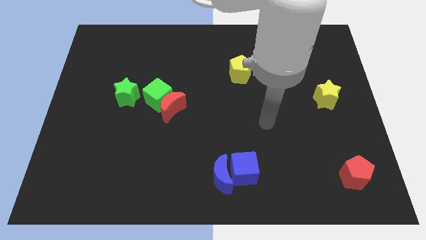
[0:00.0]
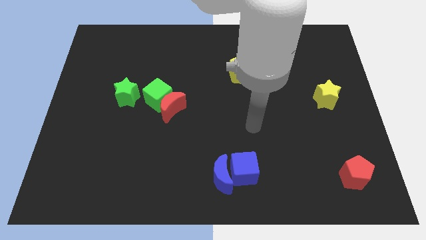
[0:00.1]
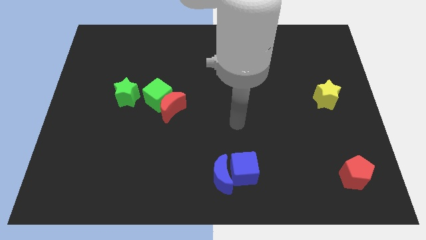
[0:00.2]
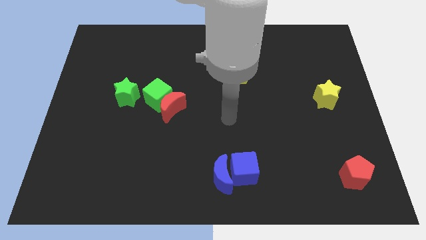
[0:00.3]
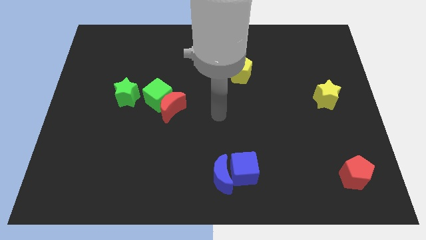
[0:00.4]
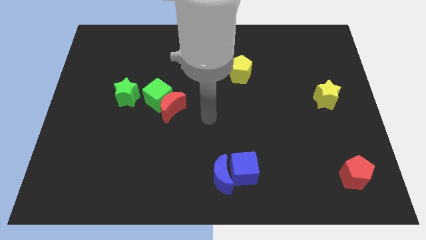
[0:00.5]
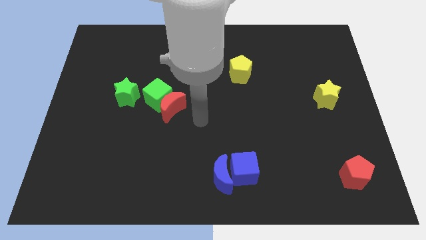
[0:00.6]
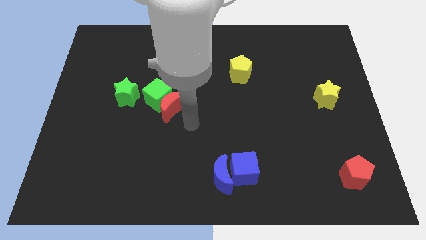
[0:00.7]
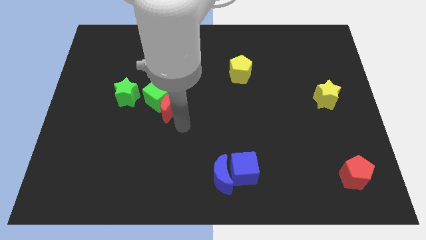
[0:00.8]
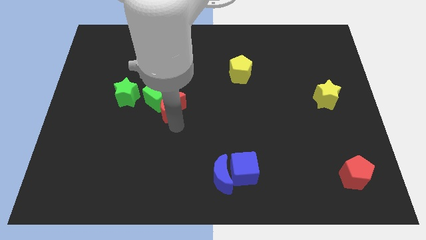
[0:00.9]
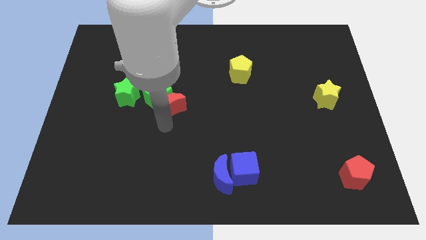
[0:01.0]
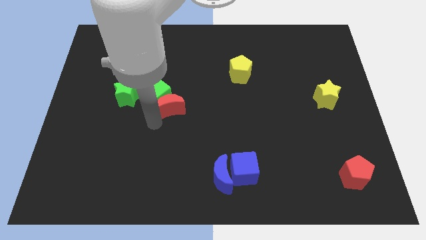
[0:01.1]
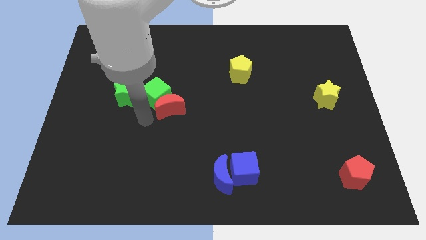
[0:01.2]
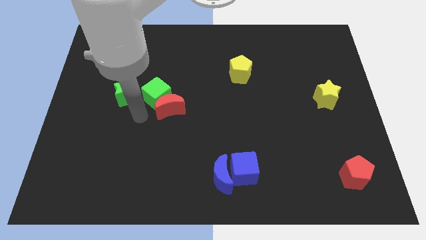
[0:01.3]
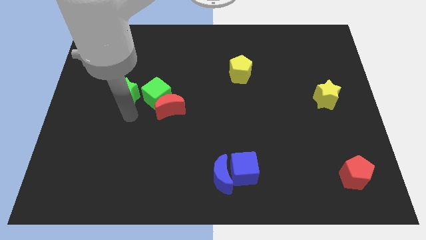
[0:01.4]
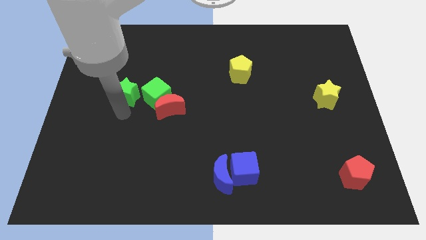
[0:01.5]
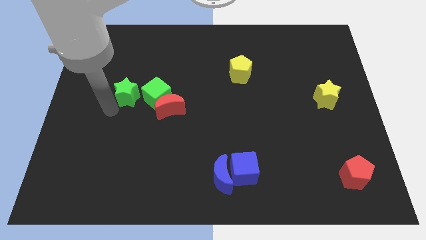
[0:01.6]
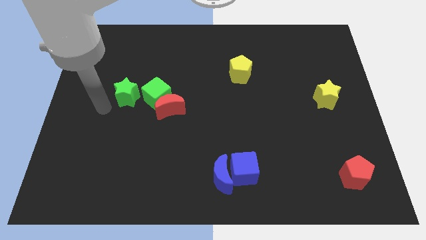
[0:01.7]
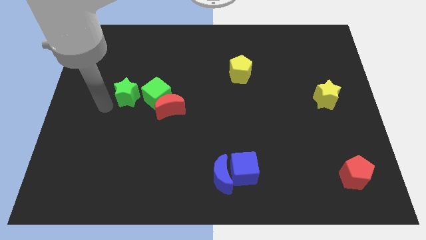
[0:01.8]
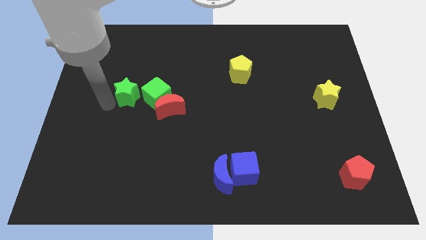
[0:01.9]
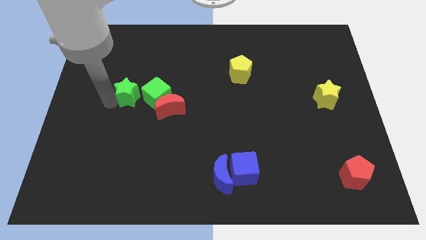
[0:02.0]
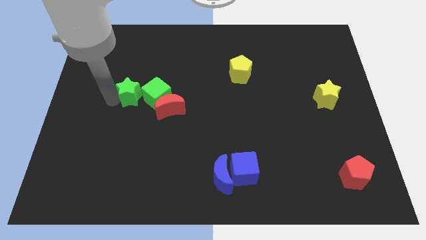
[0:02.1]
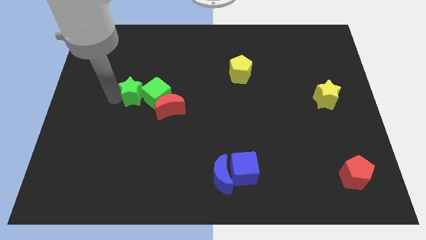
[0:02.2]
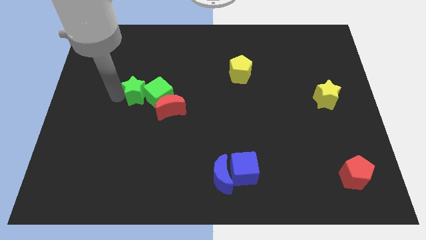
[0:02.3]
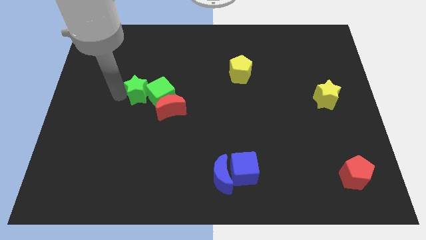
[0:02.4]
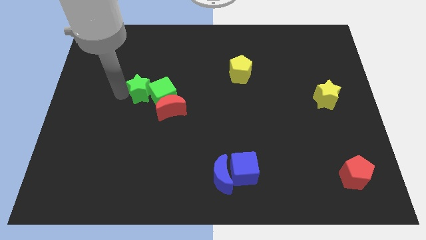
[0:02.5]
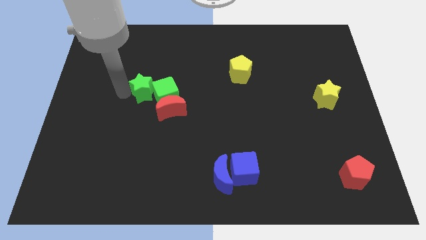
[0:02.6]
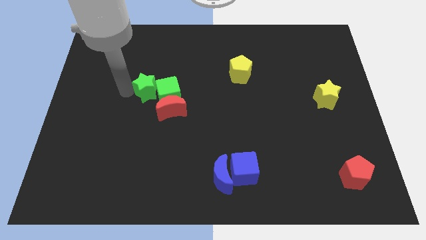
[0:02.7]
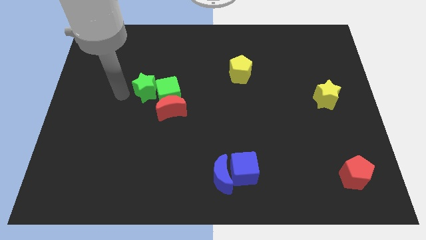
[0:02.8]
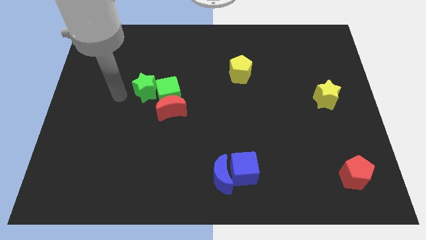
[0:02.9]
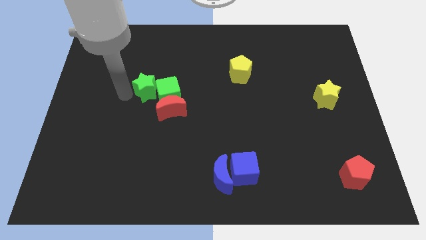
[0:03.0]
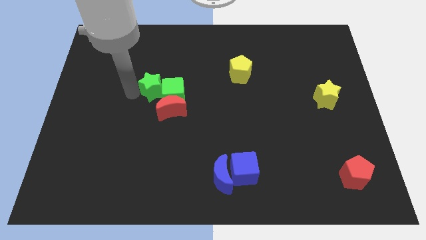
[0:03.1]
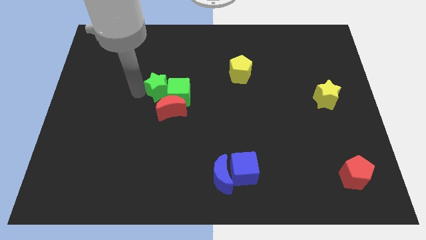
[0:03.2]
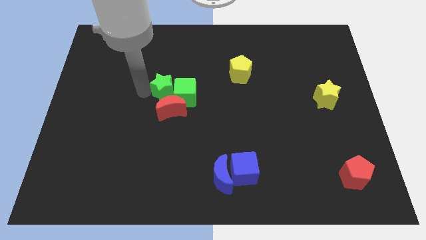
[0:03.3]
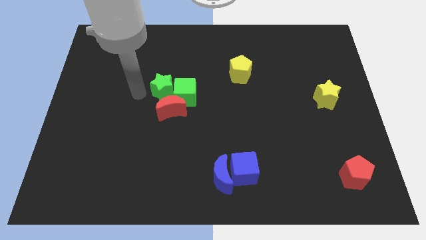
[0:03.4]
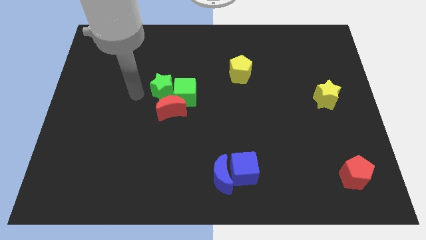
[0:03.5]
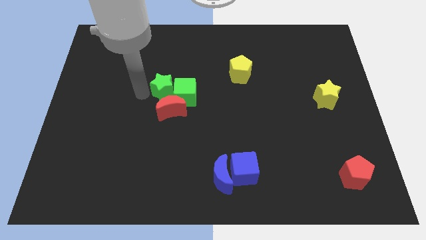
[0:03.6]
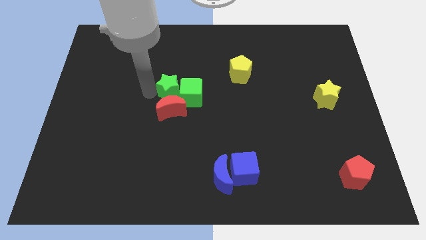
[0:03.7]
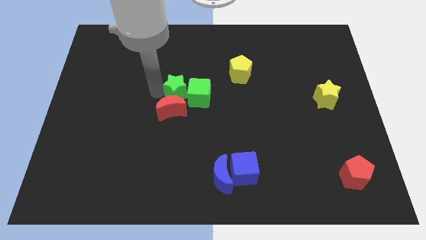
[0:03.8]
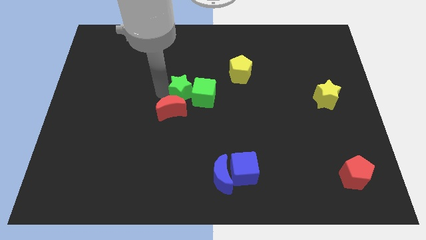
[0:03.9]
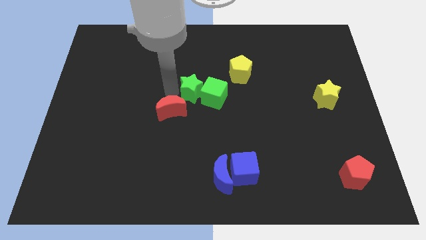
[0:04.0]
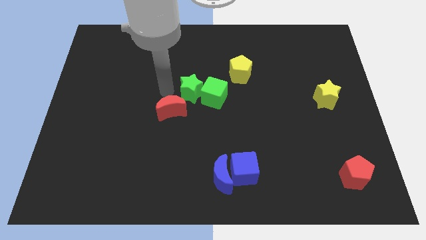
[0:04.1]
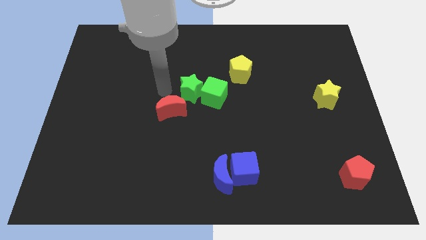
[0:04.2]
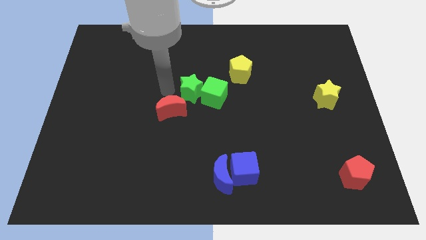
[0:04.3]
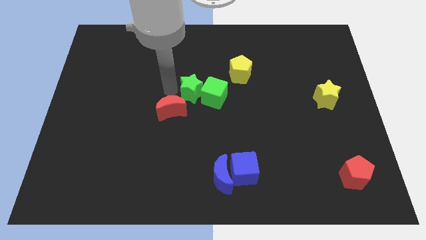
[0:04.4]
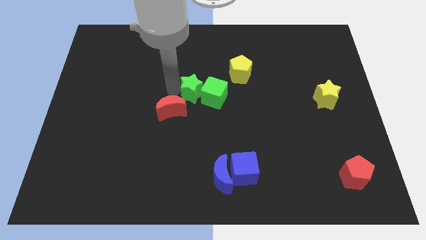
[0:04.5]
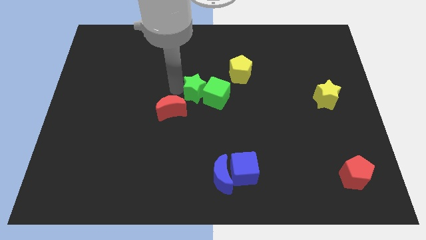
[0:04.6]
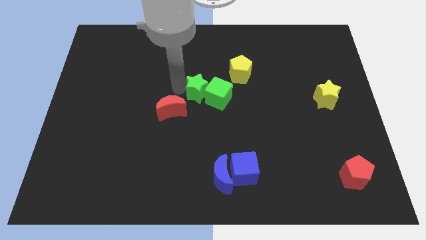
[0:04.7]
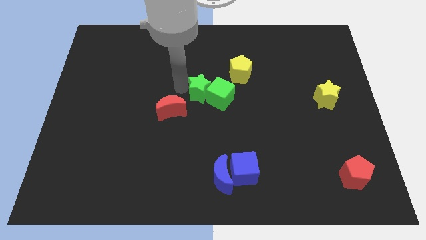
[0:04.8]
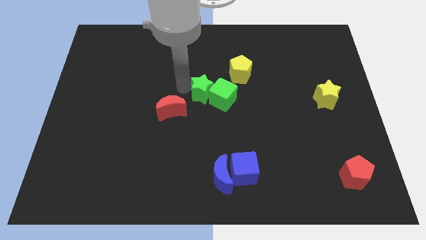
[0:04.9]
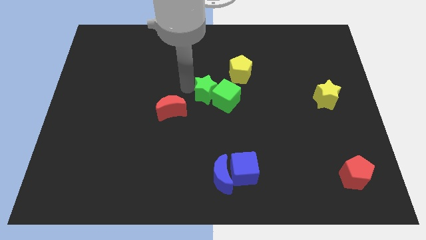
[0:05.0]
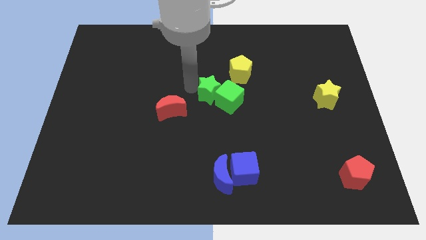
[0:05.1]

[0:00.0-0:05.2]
push the green star right

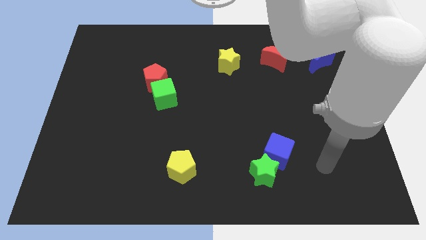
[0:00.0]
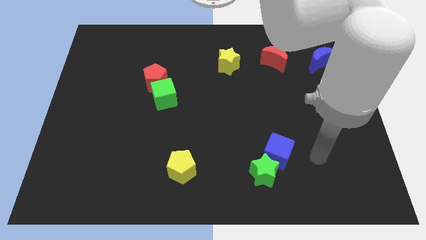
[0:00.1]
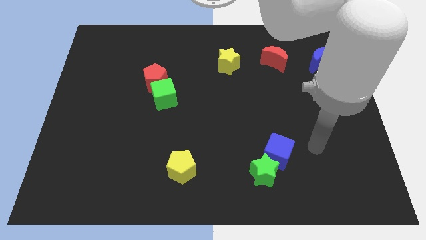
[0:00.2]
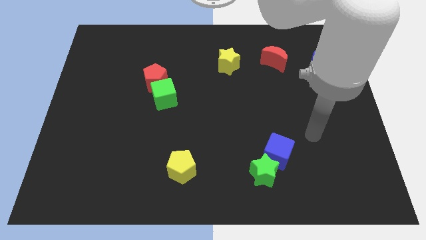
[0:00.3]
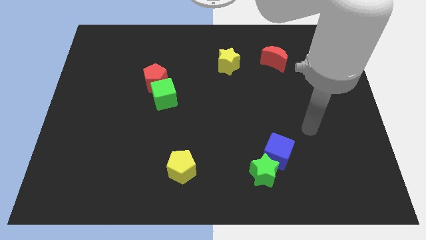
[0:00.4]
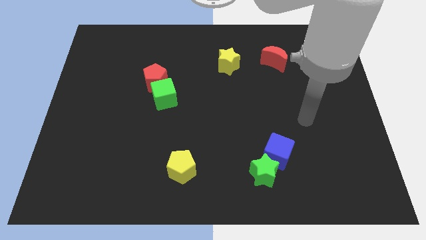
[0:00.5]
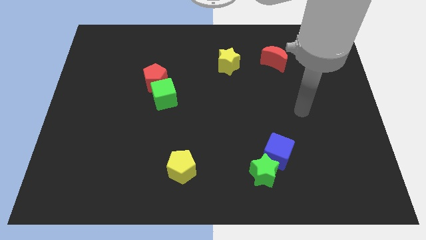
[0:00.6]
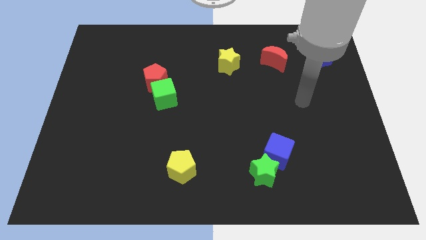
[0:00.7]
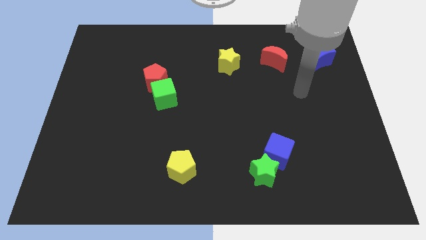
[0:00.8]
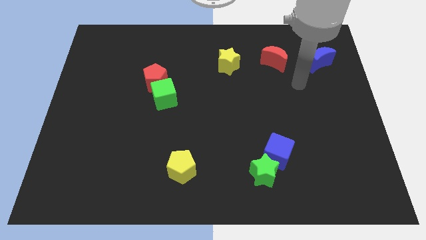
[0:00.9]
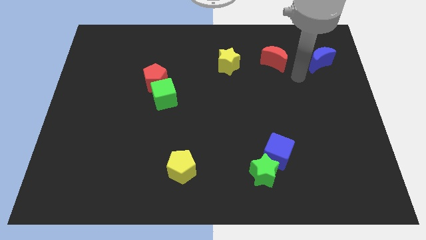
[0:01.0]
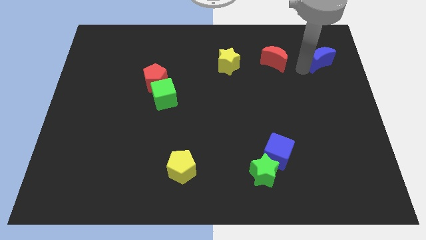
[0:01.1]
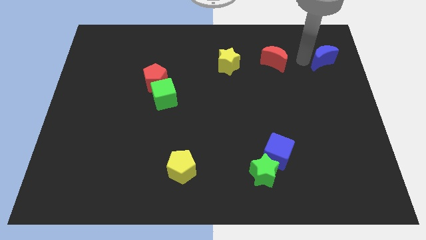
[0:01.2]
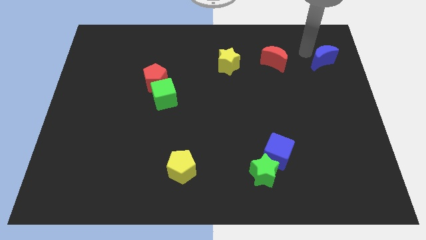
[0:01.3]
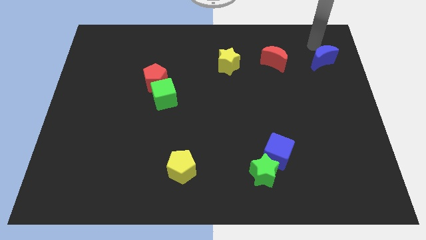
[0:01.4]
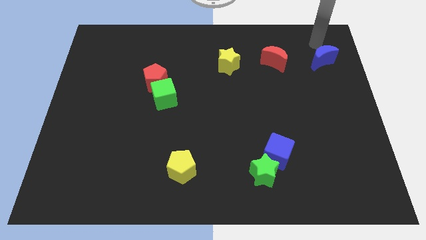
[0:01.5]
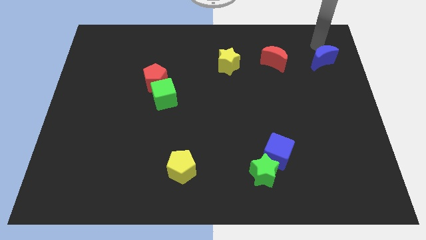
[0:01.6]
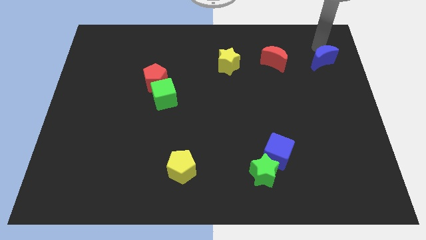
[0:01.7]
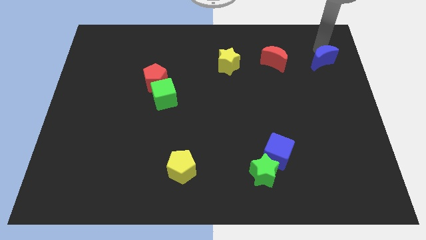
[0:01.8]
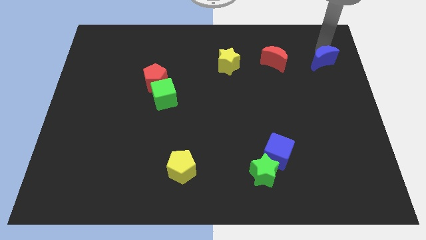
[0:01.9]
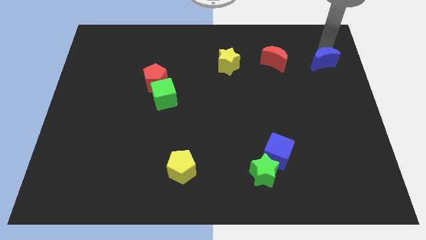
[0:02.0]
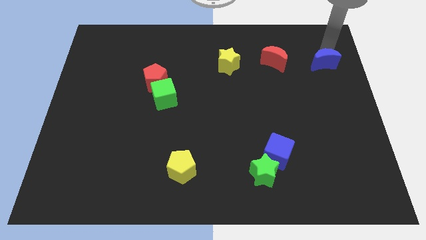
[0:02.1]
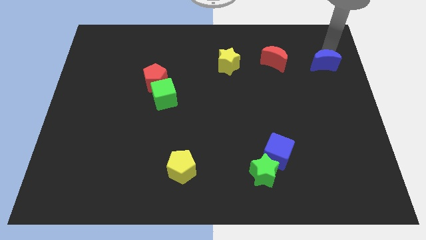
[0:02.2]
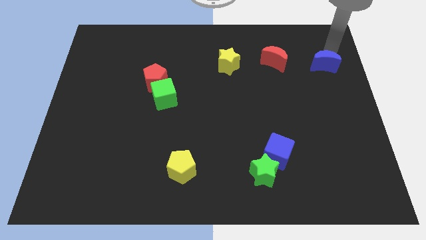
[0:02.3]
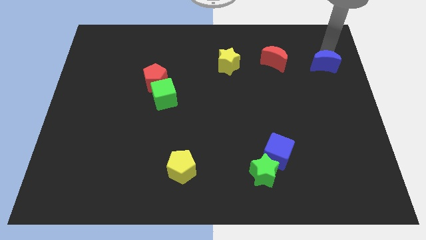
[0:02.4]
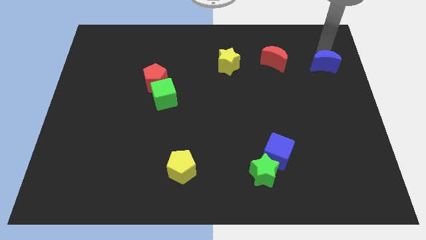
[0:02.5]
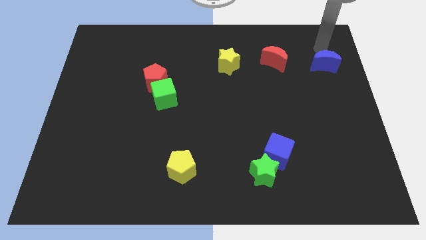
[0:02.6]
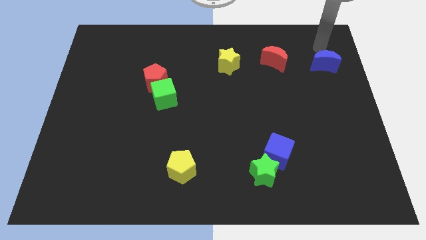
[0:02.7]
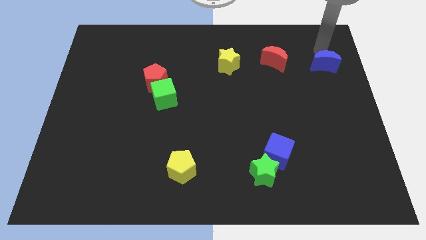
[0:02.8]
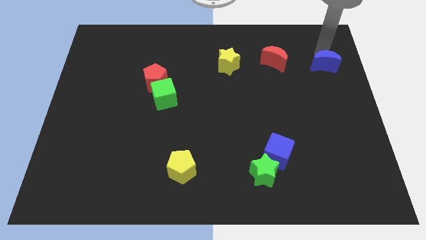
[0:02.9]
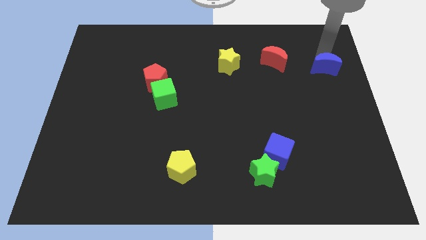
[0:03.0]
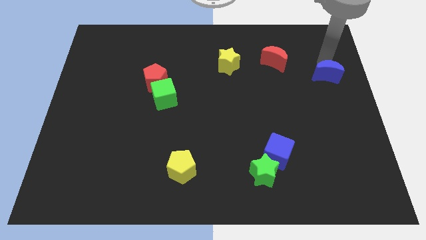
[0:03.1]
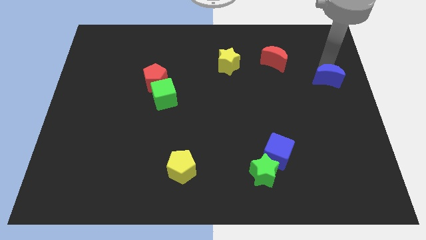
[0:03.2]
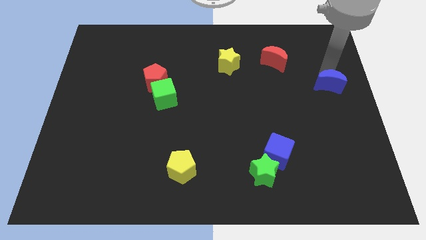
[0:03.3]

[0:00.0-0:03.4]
slightly push the blue moon downwards
